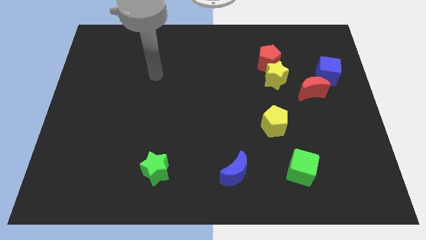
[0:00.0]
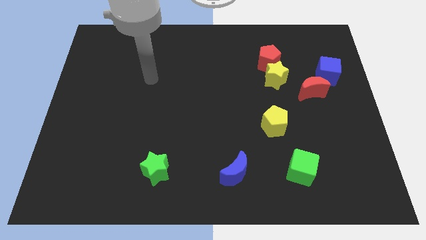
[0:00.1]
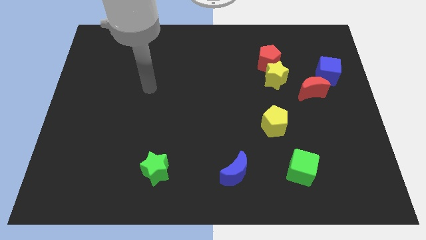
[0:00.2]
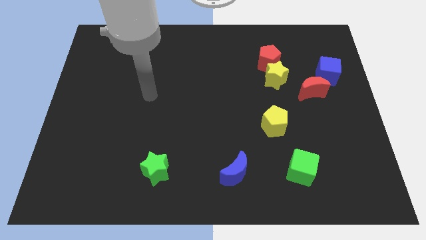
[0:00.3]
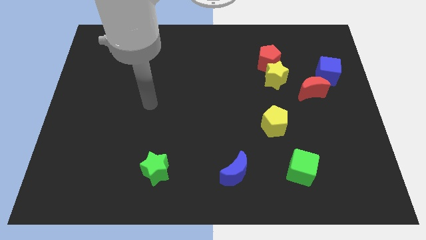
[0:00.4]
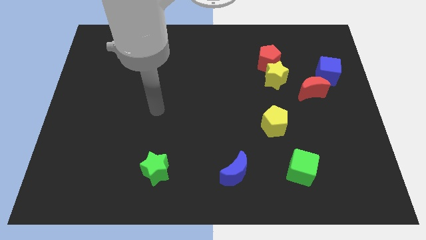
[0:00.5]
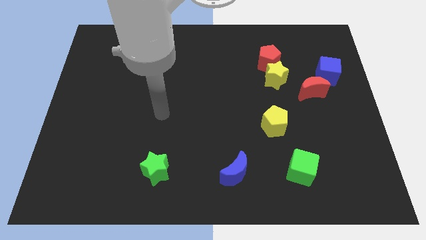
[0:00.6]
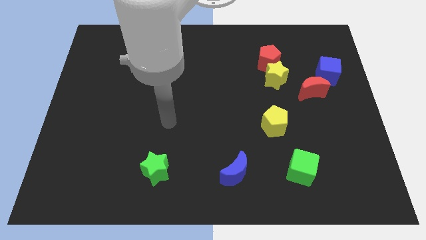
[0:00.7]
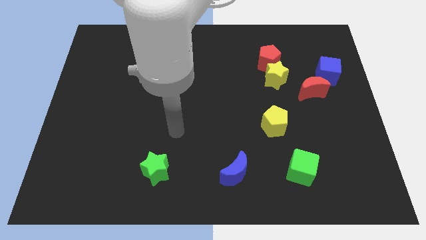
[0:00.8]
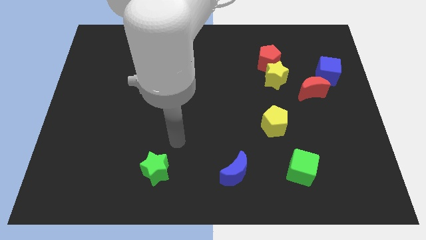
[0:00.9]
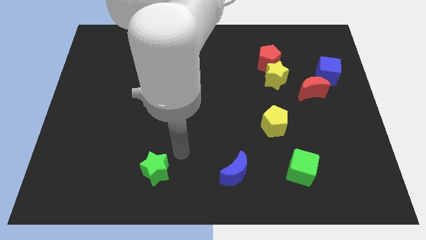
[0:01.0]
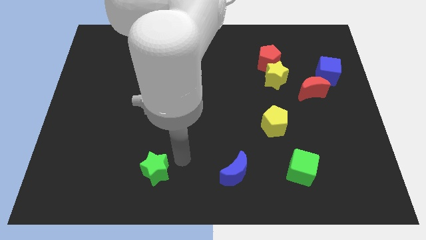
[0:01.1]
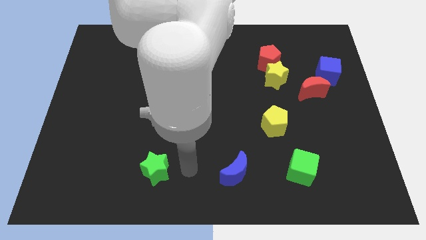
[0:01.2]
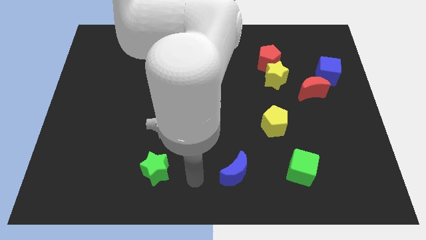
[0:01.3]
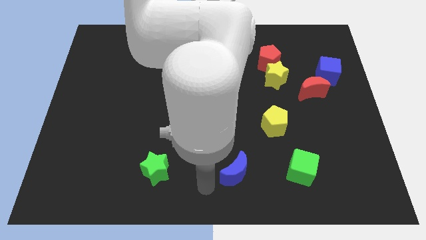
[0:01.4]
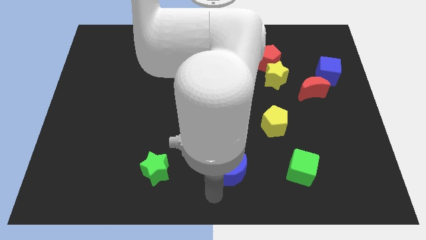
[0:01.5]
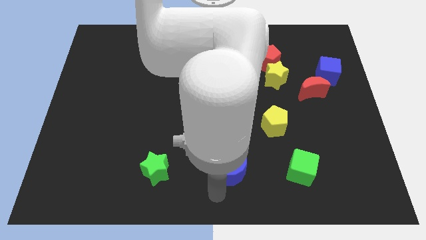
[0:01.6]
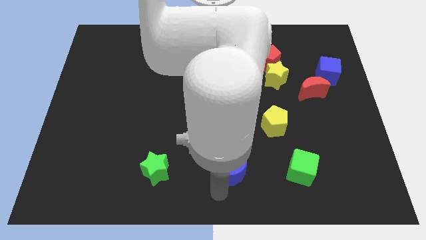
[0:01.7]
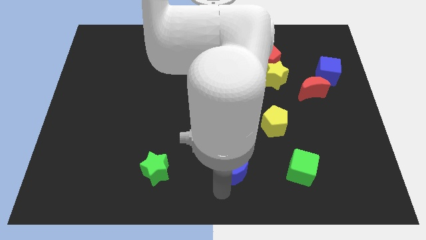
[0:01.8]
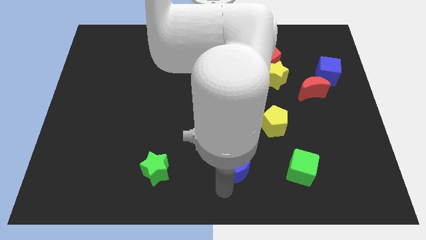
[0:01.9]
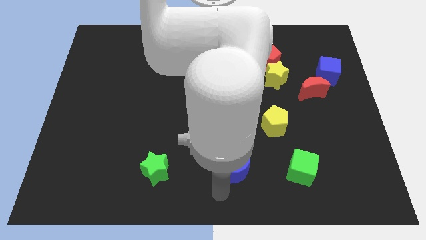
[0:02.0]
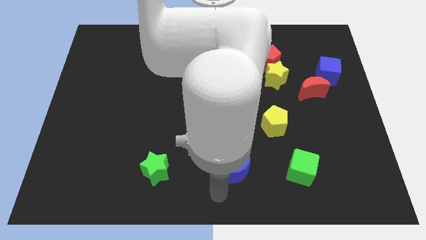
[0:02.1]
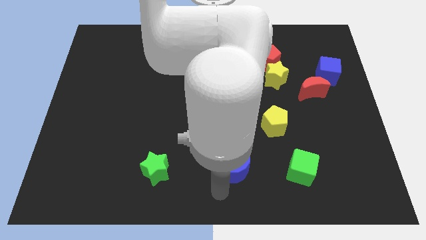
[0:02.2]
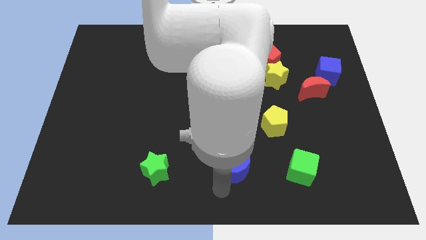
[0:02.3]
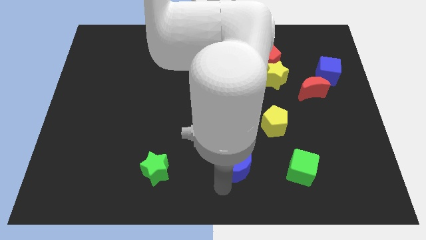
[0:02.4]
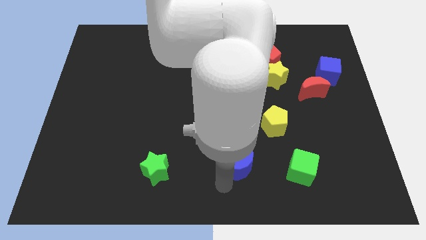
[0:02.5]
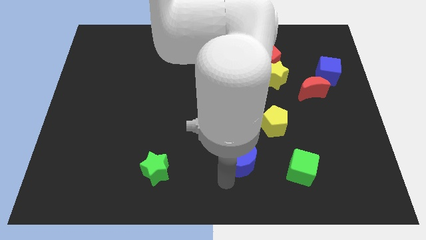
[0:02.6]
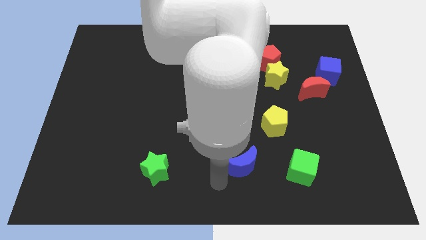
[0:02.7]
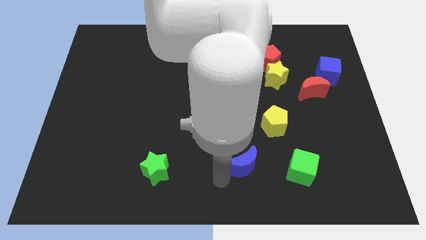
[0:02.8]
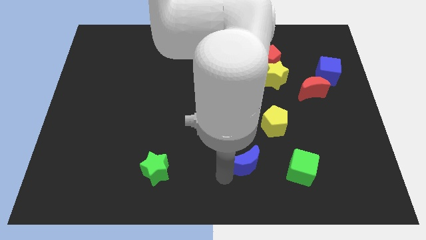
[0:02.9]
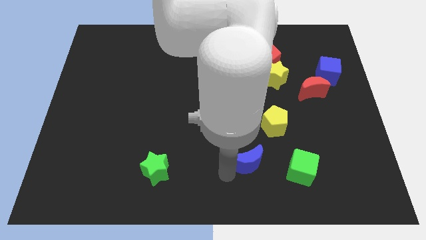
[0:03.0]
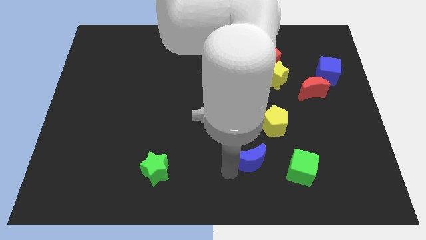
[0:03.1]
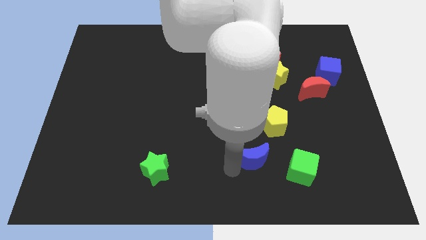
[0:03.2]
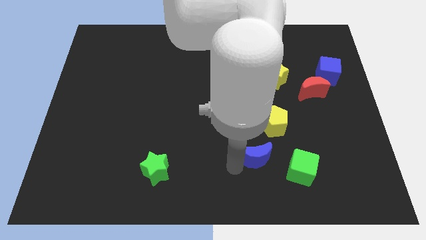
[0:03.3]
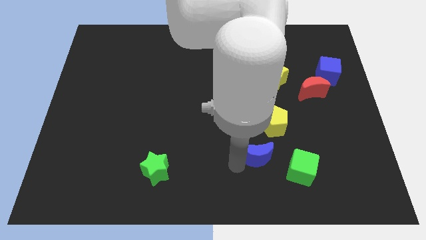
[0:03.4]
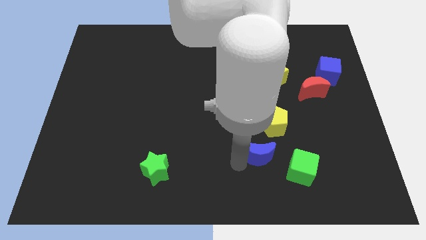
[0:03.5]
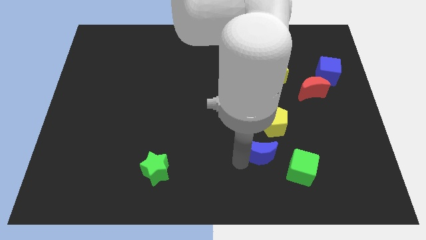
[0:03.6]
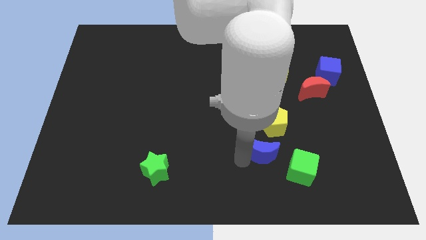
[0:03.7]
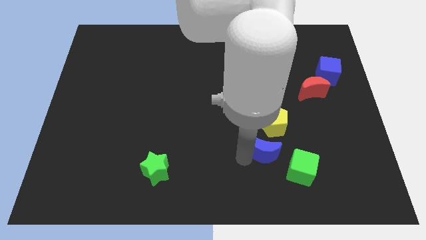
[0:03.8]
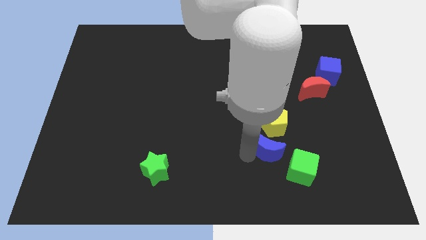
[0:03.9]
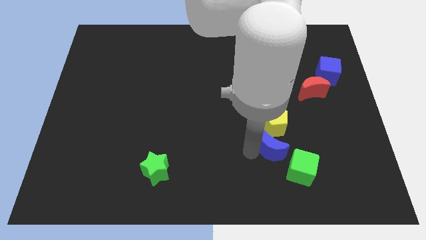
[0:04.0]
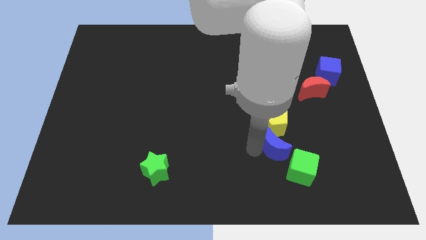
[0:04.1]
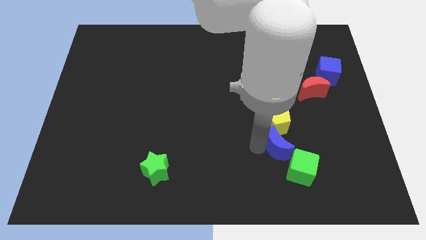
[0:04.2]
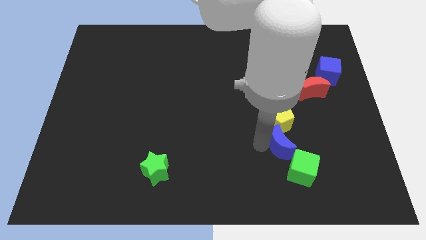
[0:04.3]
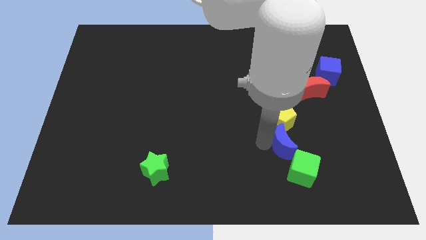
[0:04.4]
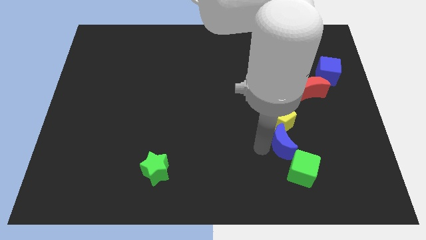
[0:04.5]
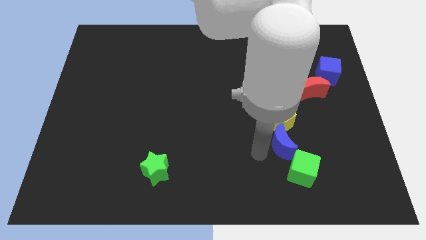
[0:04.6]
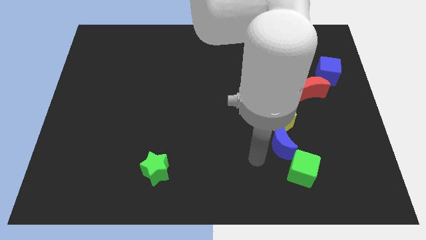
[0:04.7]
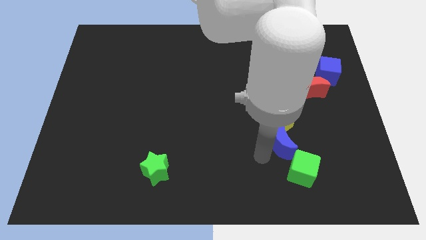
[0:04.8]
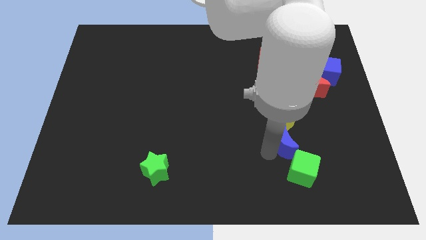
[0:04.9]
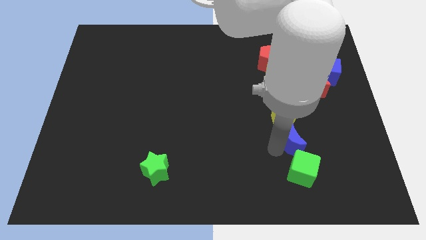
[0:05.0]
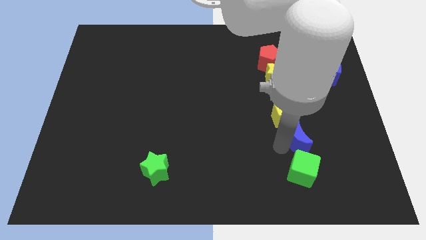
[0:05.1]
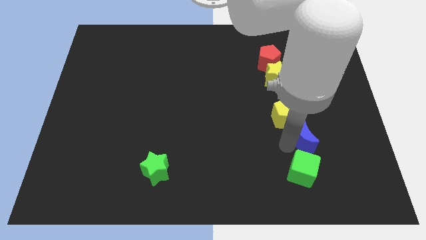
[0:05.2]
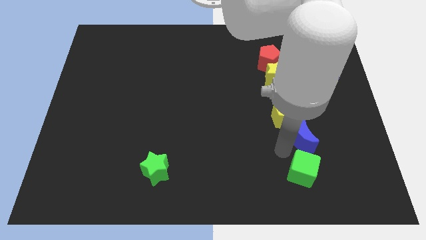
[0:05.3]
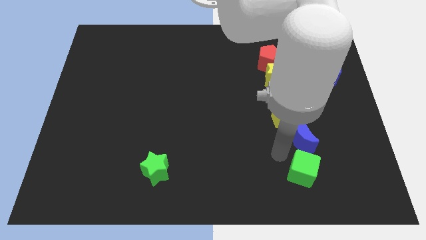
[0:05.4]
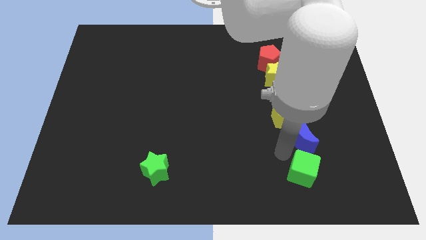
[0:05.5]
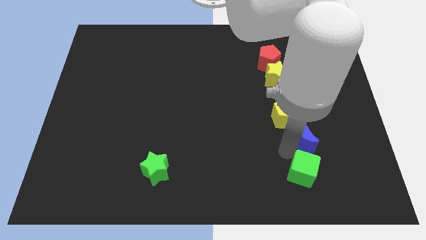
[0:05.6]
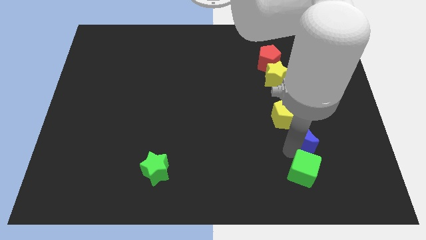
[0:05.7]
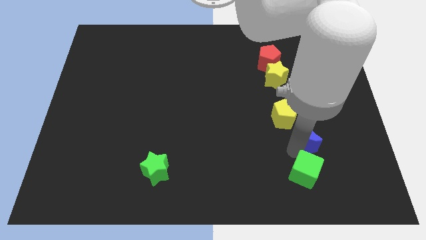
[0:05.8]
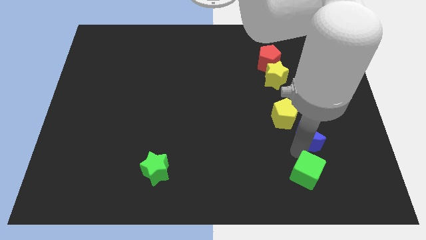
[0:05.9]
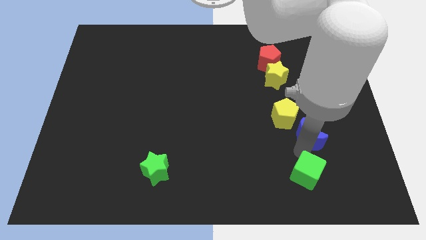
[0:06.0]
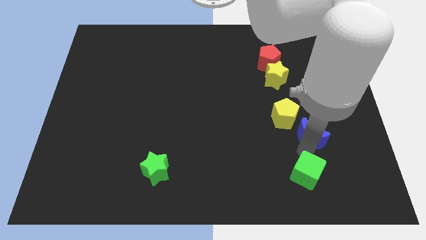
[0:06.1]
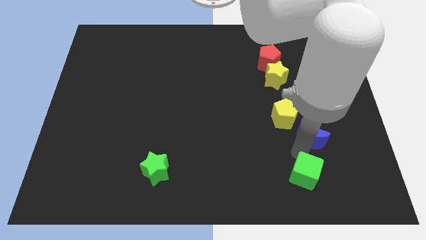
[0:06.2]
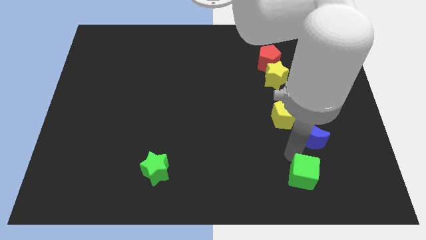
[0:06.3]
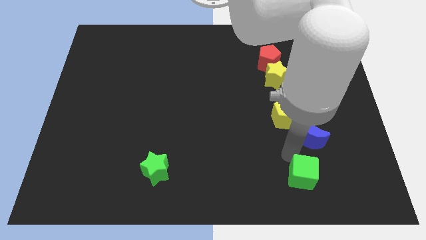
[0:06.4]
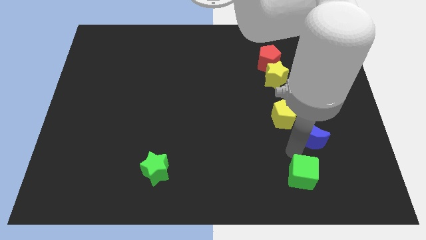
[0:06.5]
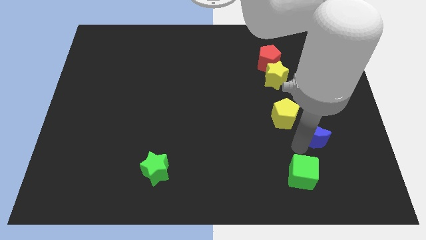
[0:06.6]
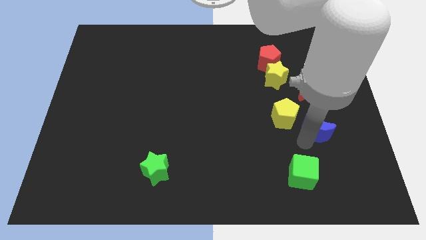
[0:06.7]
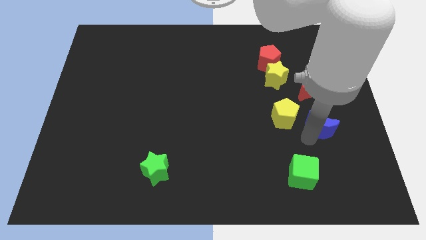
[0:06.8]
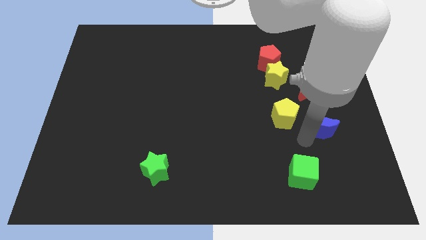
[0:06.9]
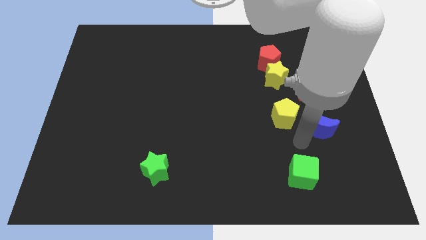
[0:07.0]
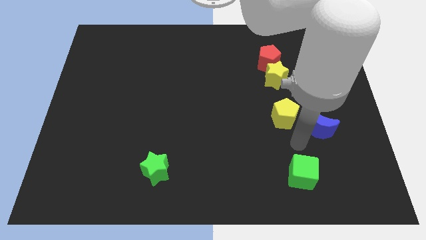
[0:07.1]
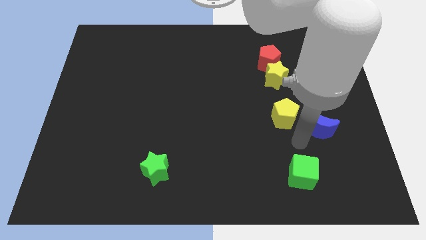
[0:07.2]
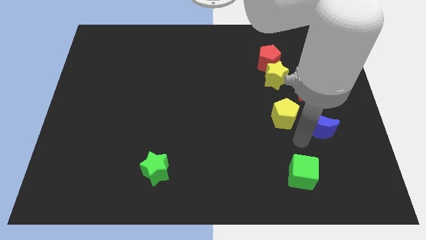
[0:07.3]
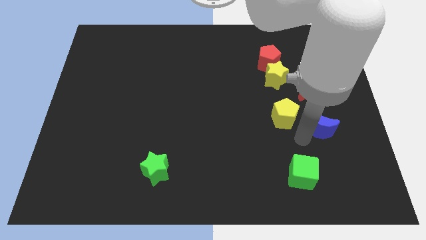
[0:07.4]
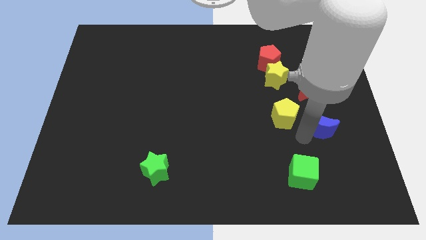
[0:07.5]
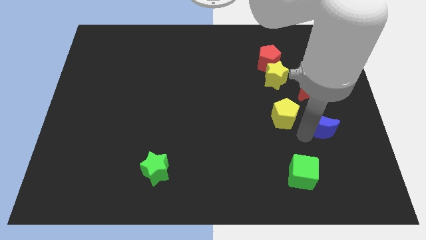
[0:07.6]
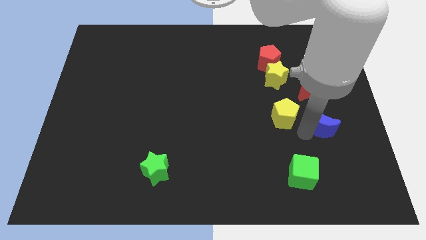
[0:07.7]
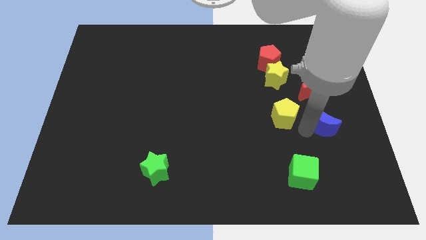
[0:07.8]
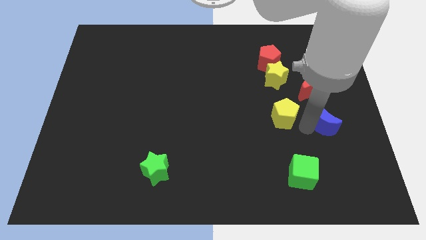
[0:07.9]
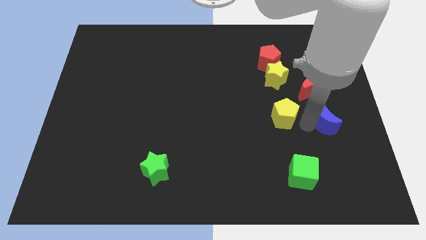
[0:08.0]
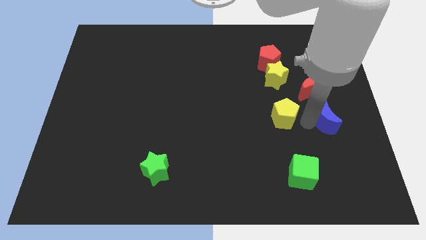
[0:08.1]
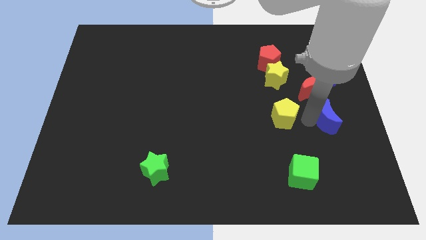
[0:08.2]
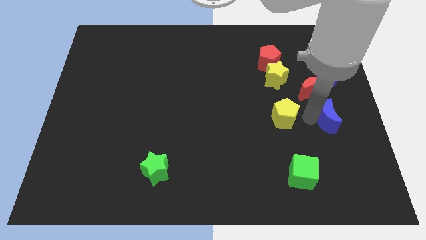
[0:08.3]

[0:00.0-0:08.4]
put the blue moon to the right side
